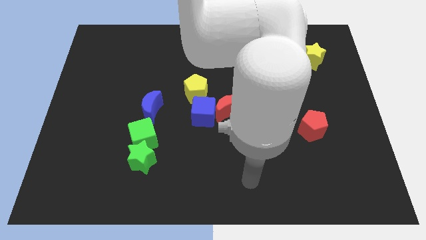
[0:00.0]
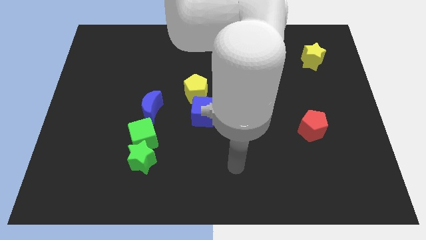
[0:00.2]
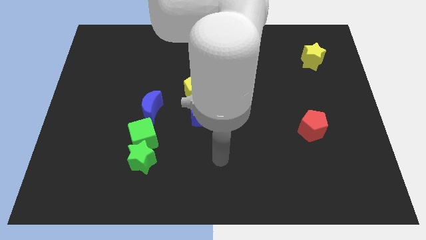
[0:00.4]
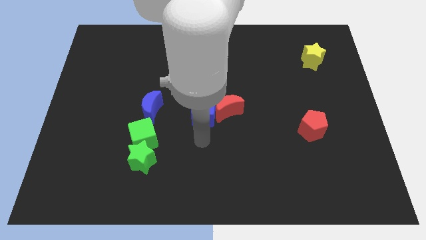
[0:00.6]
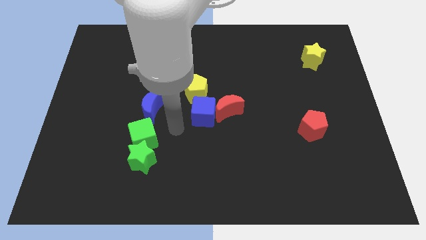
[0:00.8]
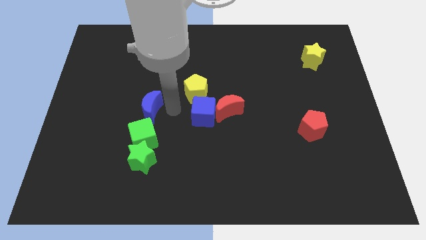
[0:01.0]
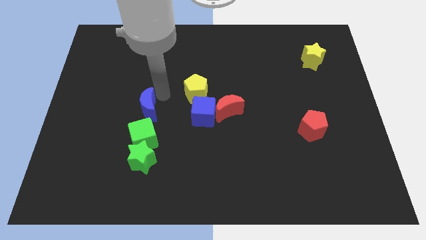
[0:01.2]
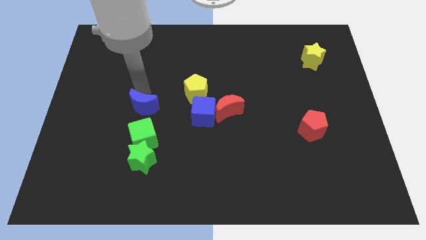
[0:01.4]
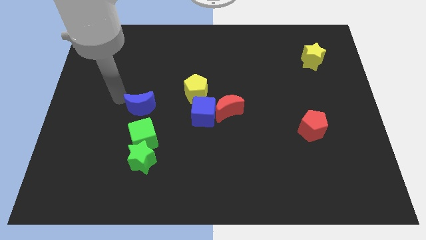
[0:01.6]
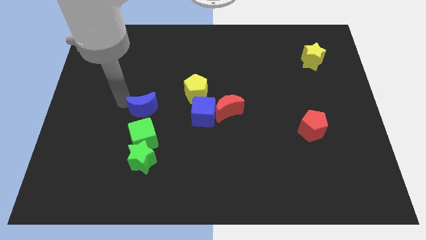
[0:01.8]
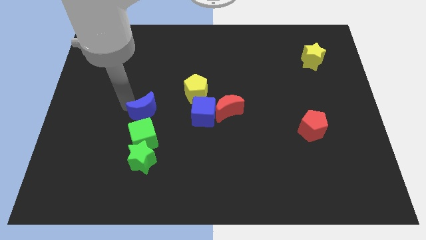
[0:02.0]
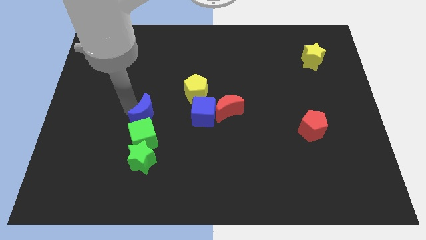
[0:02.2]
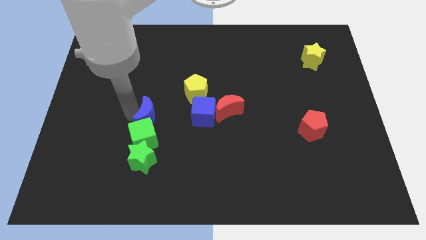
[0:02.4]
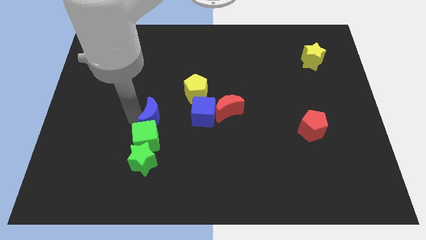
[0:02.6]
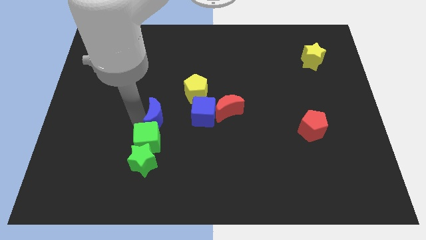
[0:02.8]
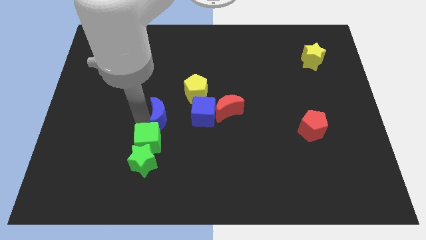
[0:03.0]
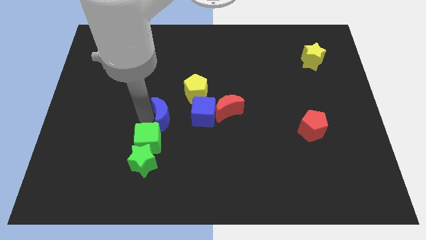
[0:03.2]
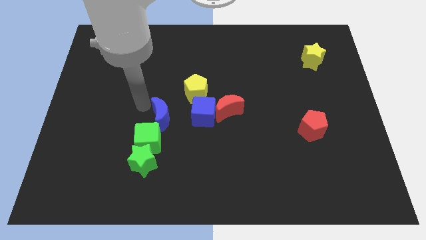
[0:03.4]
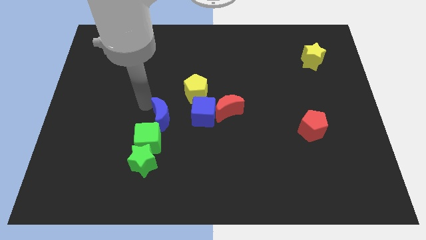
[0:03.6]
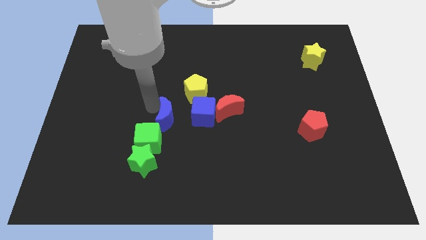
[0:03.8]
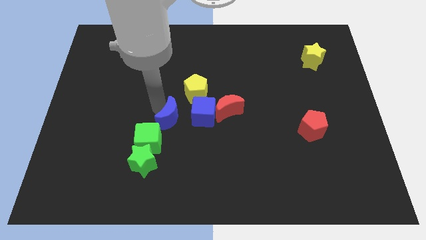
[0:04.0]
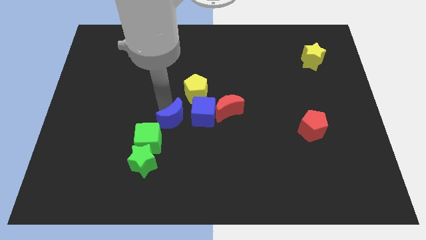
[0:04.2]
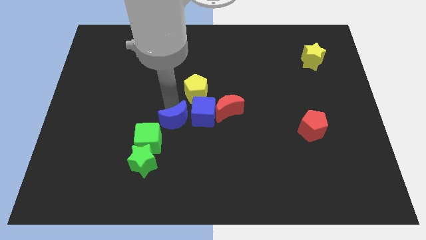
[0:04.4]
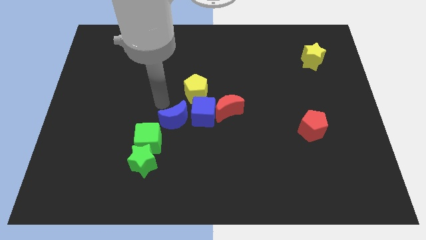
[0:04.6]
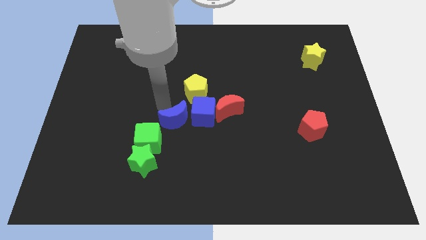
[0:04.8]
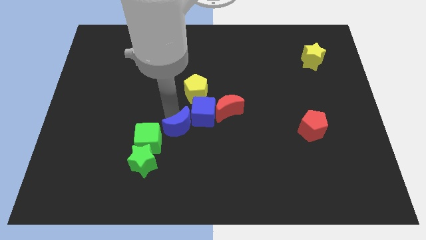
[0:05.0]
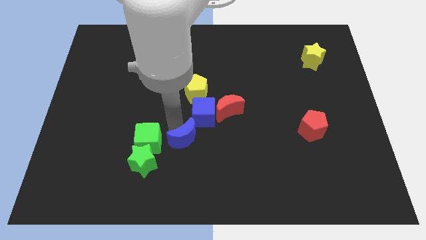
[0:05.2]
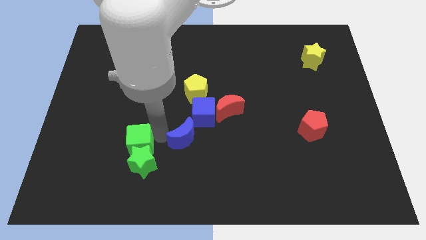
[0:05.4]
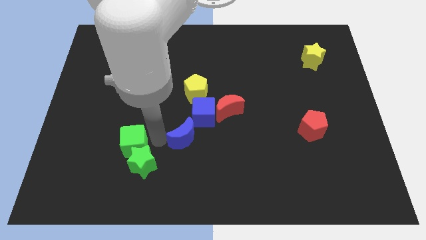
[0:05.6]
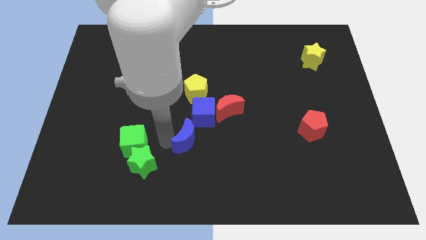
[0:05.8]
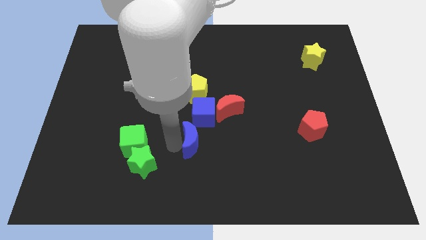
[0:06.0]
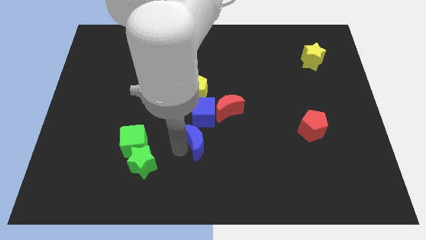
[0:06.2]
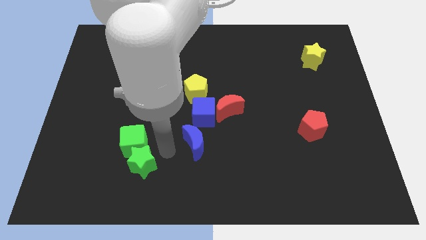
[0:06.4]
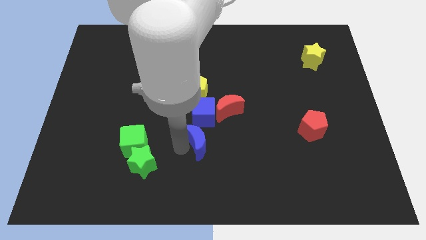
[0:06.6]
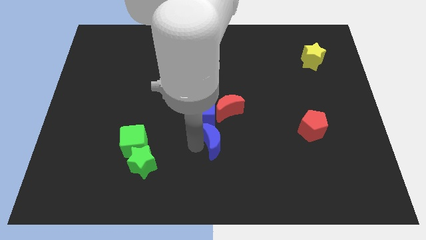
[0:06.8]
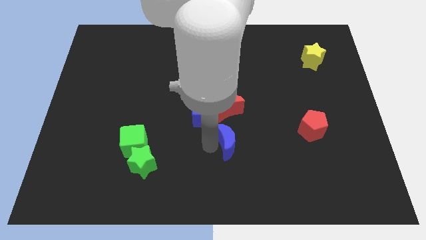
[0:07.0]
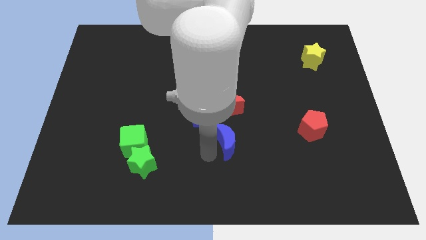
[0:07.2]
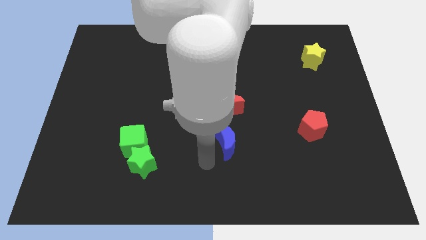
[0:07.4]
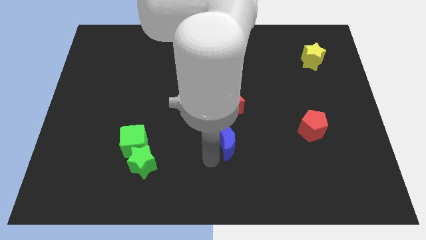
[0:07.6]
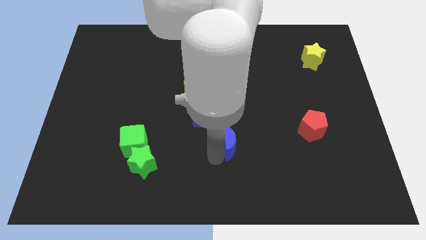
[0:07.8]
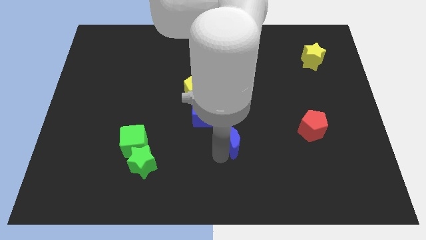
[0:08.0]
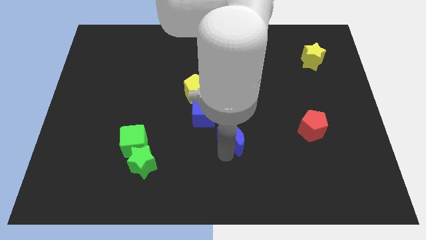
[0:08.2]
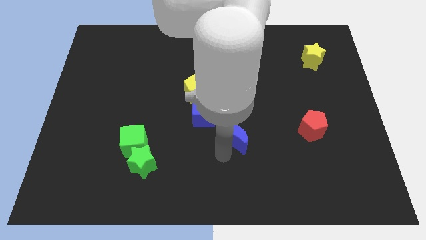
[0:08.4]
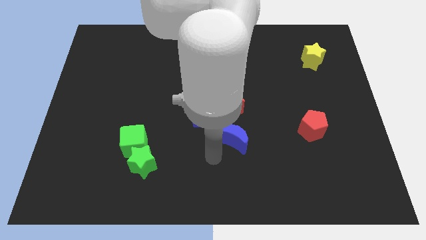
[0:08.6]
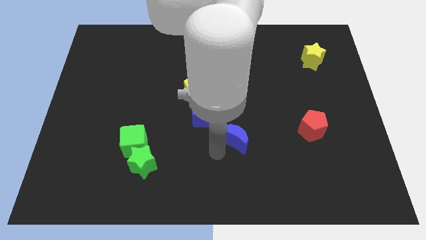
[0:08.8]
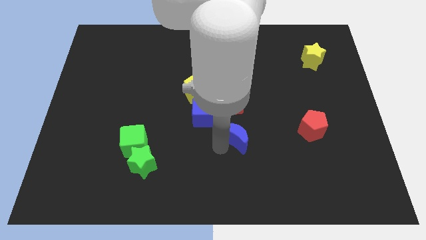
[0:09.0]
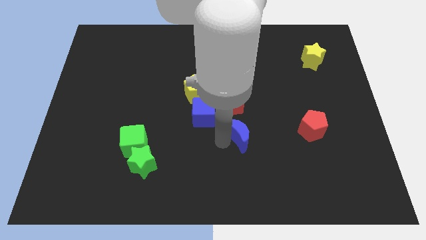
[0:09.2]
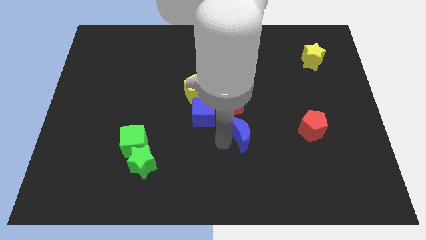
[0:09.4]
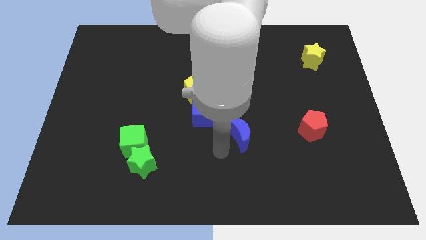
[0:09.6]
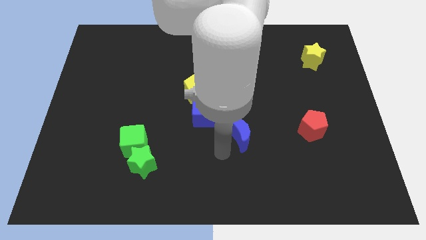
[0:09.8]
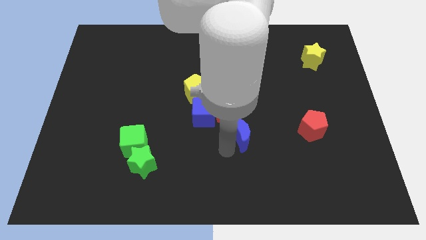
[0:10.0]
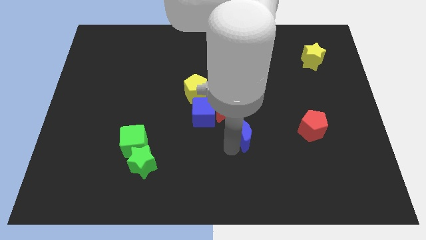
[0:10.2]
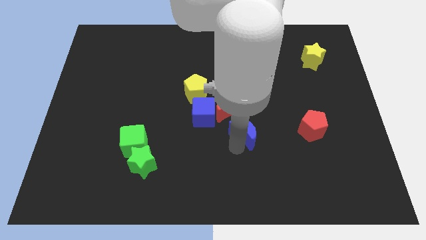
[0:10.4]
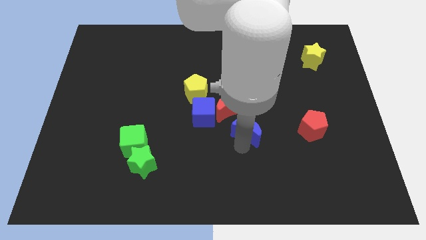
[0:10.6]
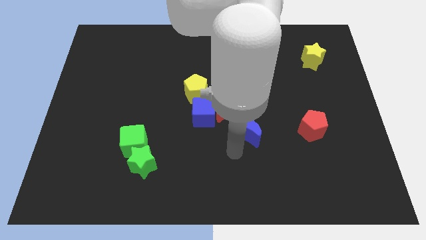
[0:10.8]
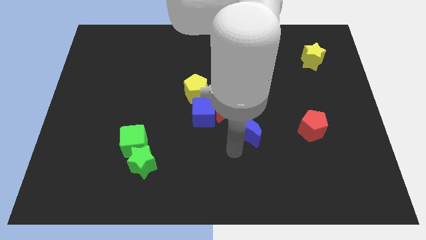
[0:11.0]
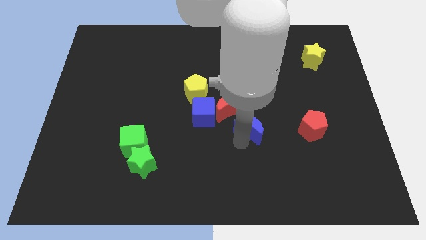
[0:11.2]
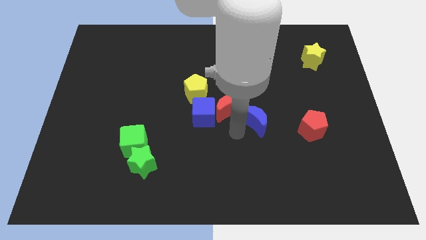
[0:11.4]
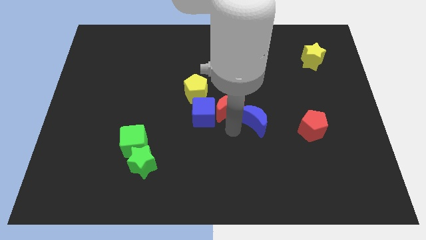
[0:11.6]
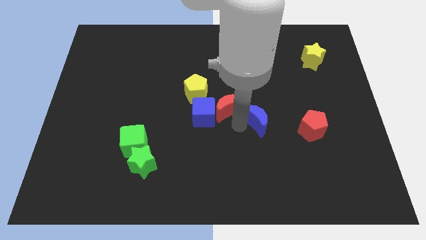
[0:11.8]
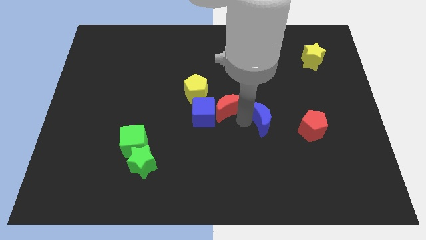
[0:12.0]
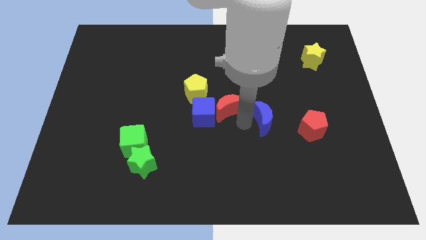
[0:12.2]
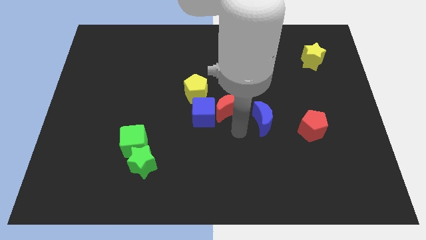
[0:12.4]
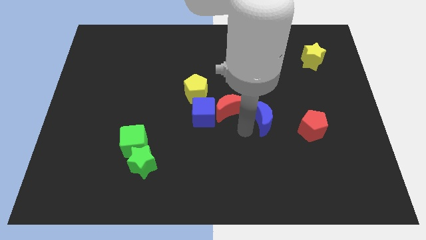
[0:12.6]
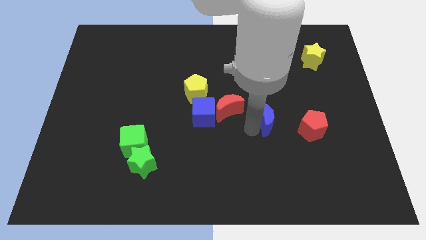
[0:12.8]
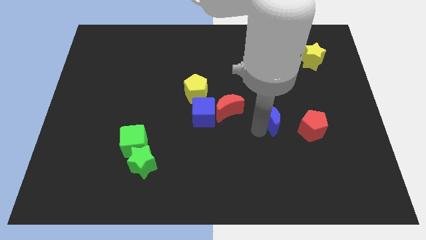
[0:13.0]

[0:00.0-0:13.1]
move the blue moon to the top left of the red pentagon

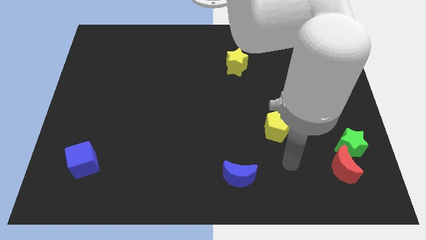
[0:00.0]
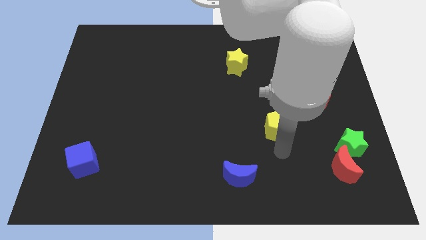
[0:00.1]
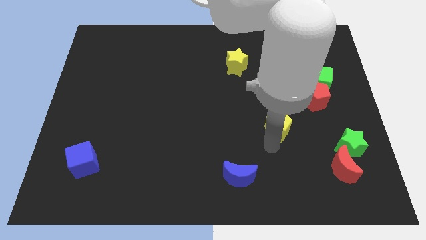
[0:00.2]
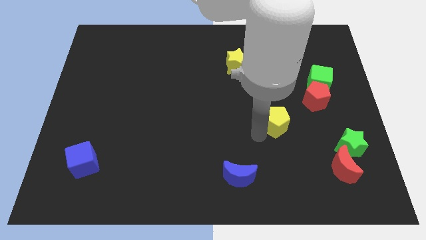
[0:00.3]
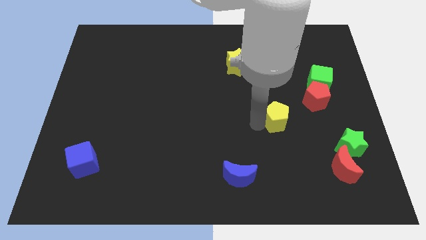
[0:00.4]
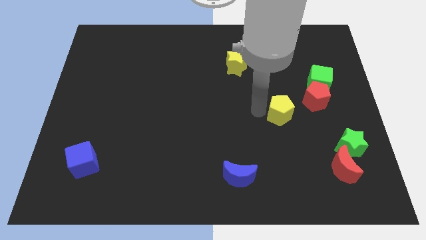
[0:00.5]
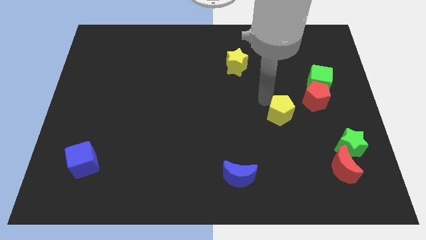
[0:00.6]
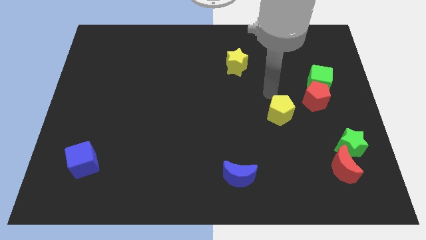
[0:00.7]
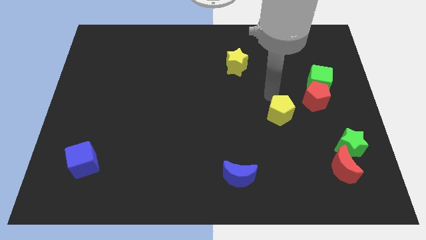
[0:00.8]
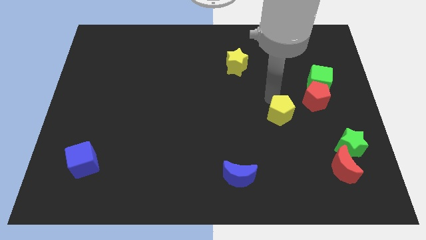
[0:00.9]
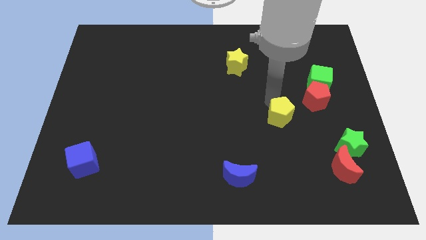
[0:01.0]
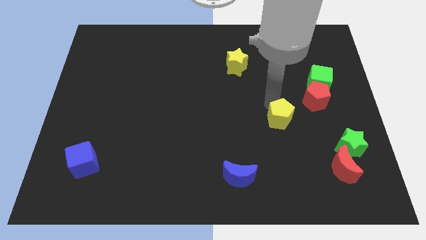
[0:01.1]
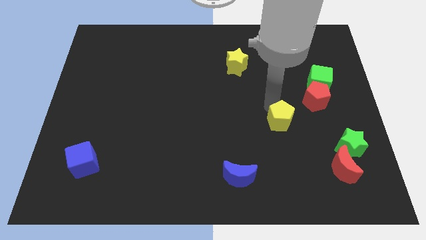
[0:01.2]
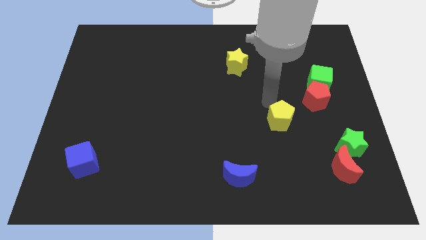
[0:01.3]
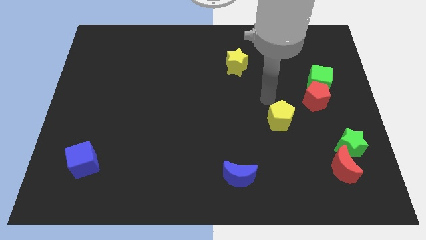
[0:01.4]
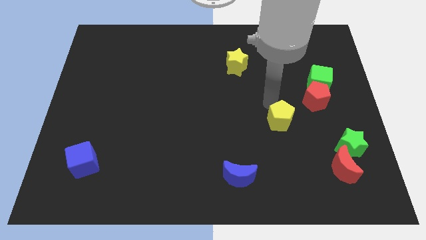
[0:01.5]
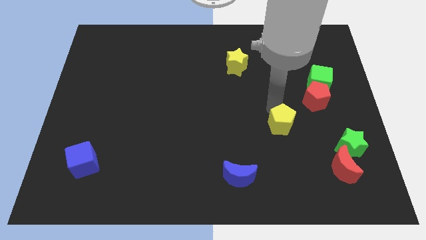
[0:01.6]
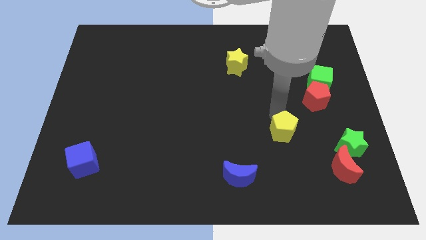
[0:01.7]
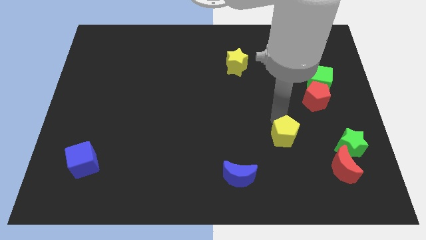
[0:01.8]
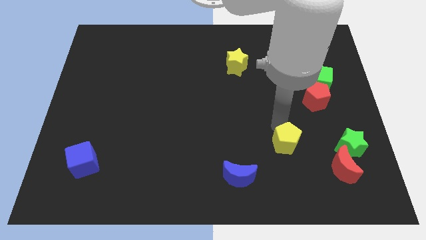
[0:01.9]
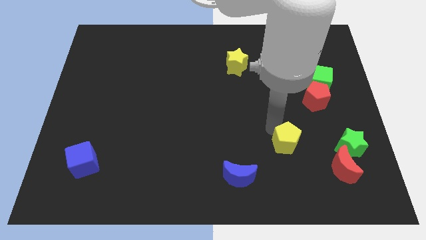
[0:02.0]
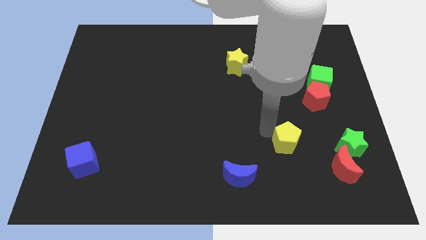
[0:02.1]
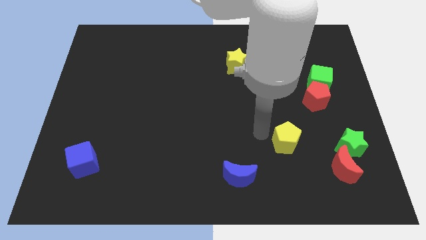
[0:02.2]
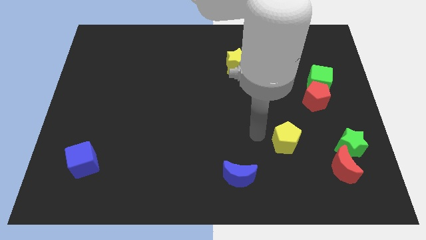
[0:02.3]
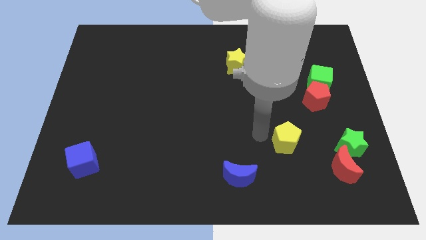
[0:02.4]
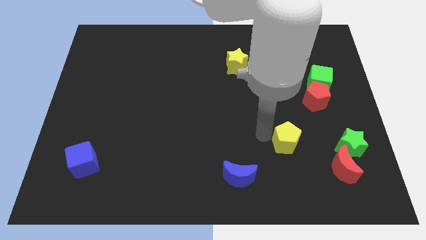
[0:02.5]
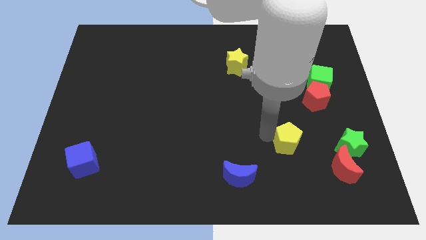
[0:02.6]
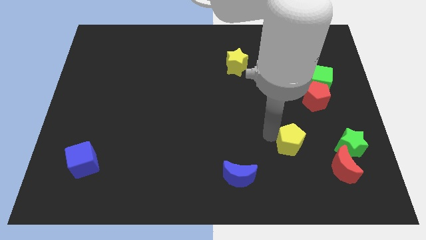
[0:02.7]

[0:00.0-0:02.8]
push the yellow pentagon to the top left of the red moon
